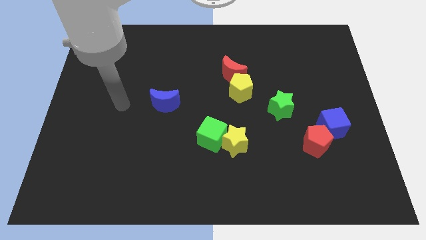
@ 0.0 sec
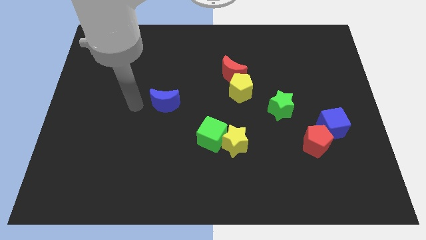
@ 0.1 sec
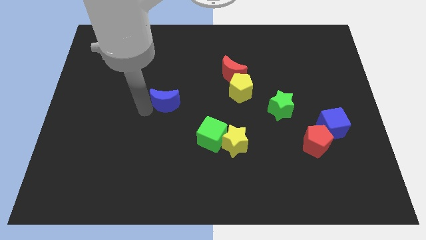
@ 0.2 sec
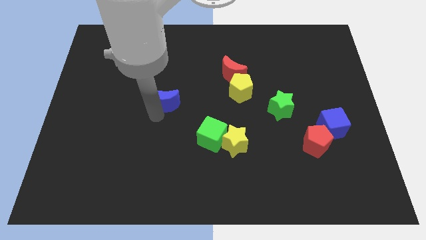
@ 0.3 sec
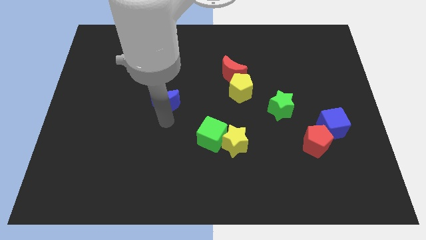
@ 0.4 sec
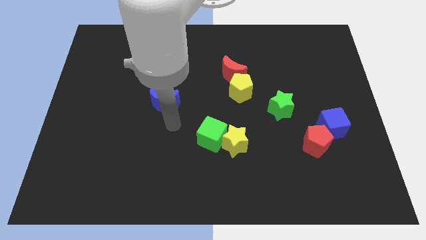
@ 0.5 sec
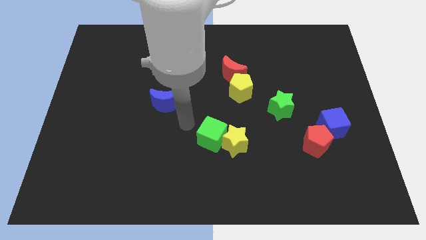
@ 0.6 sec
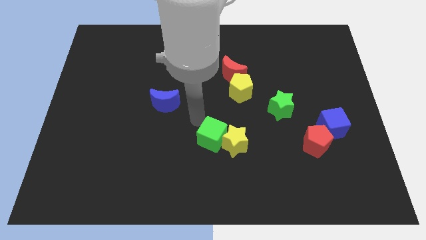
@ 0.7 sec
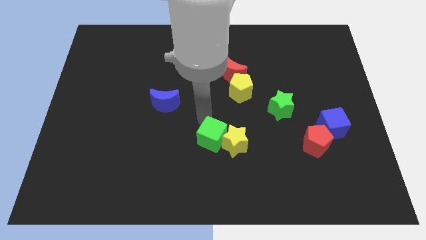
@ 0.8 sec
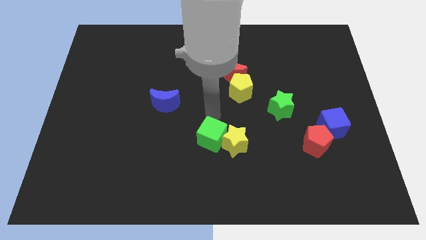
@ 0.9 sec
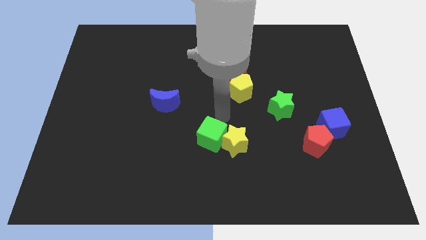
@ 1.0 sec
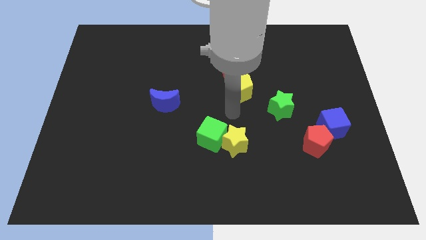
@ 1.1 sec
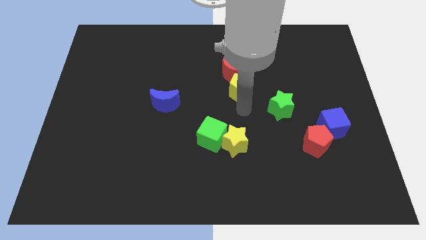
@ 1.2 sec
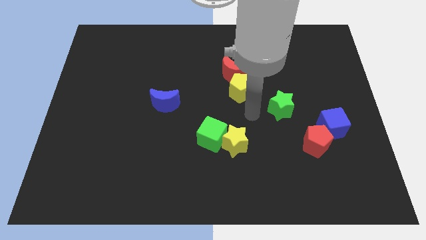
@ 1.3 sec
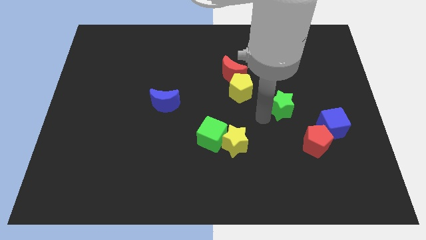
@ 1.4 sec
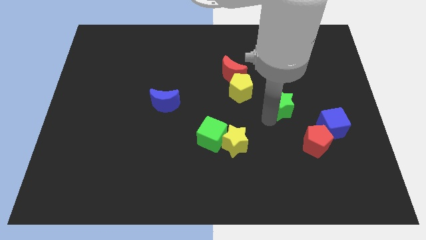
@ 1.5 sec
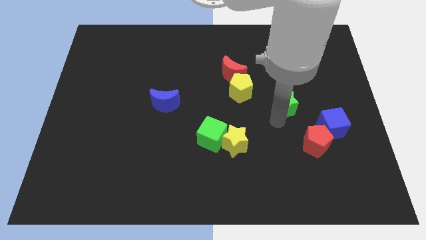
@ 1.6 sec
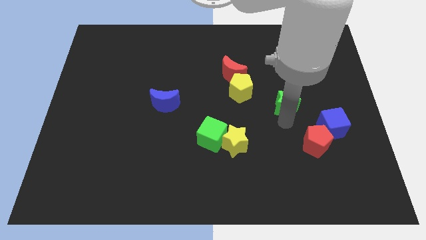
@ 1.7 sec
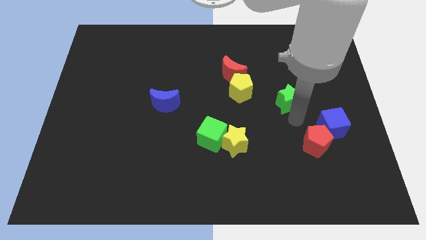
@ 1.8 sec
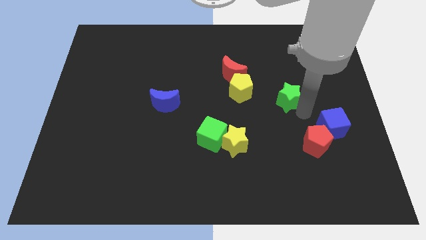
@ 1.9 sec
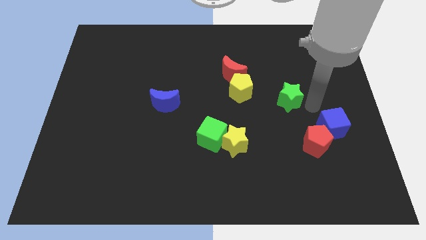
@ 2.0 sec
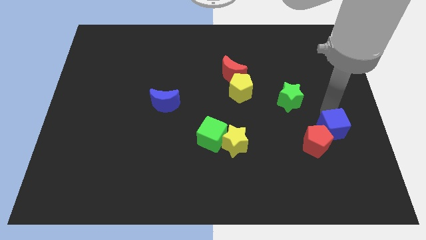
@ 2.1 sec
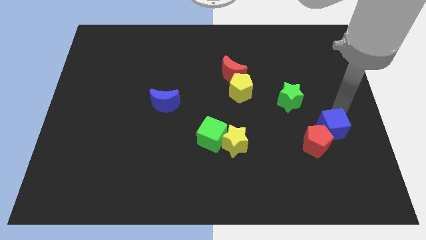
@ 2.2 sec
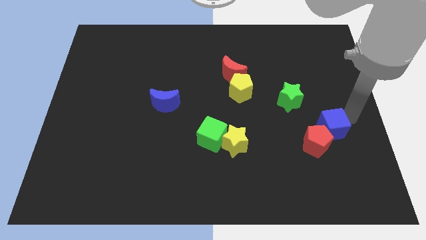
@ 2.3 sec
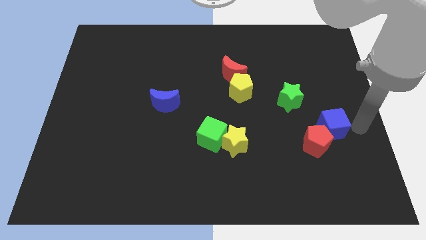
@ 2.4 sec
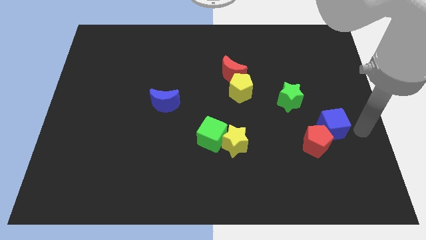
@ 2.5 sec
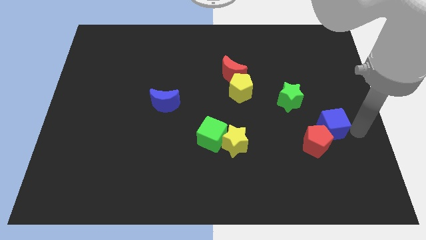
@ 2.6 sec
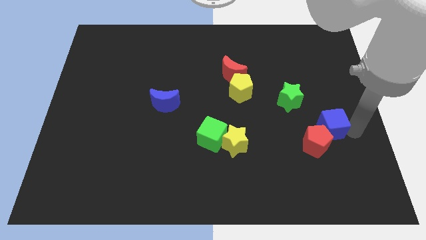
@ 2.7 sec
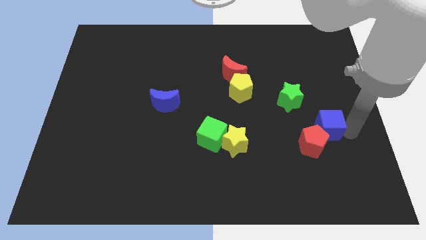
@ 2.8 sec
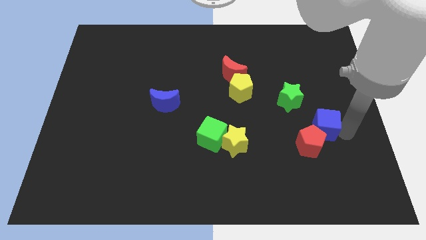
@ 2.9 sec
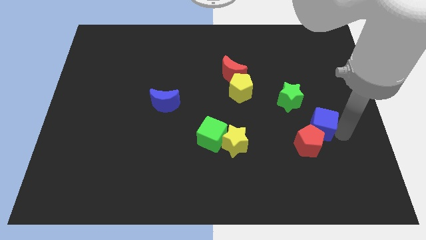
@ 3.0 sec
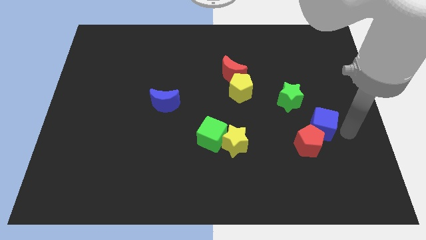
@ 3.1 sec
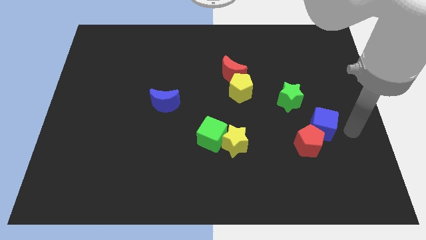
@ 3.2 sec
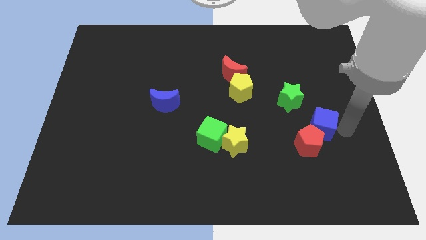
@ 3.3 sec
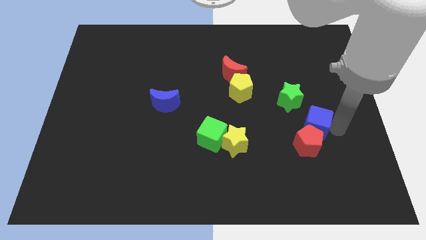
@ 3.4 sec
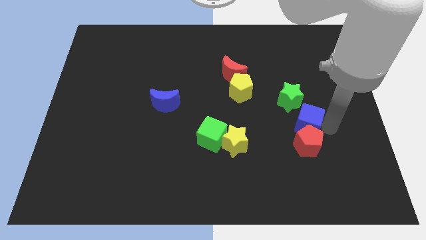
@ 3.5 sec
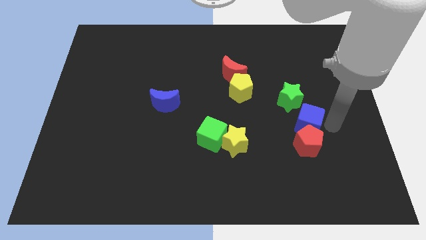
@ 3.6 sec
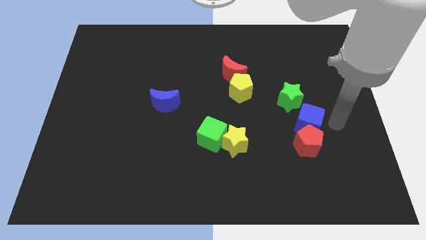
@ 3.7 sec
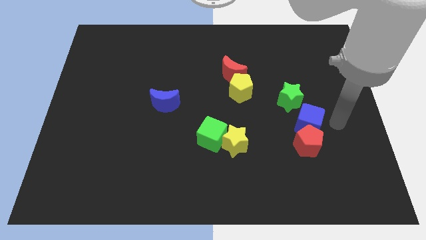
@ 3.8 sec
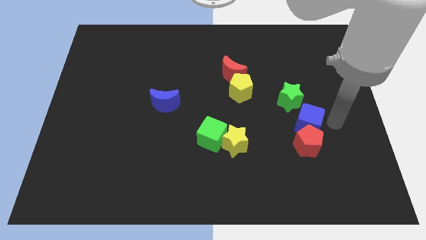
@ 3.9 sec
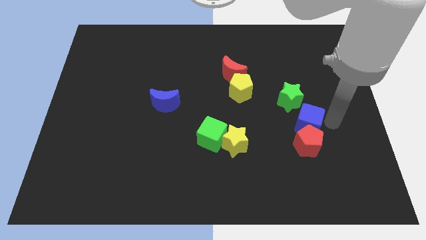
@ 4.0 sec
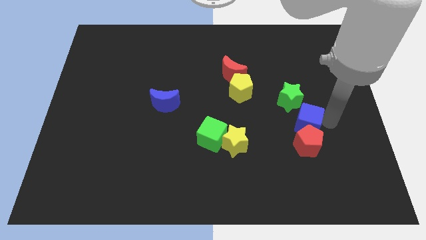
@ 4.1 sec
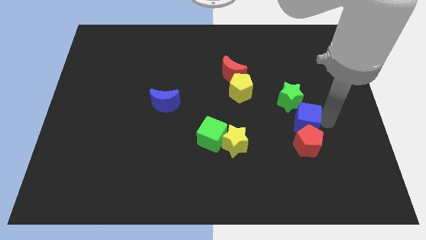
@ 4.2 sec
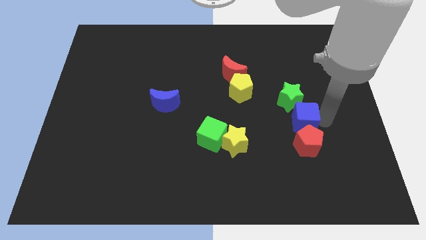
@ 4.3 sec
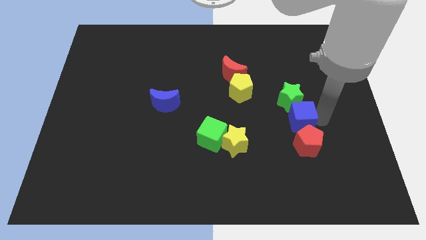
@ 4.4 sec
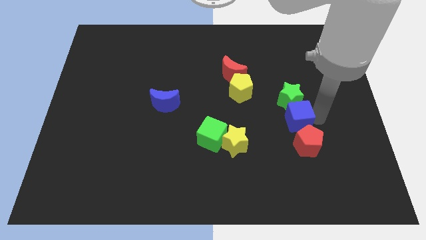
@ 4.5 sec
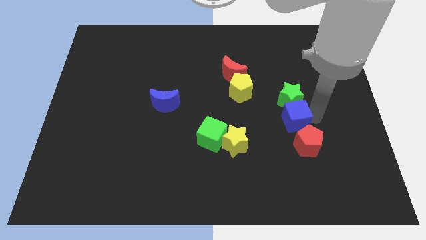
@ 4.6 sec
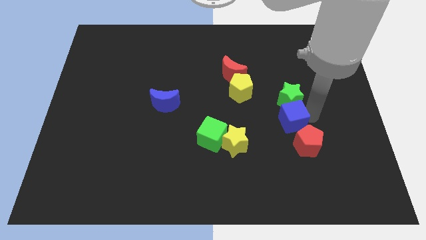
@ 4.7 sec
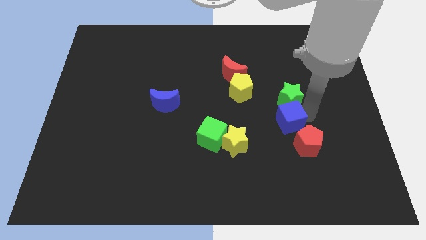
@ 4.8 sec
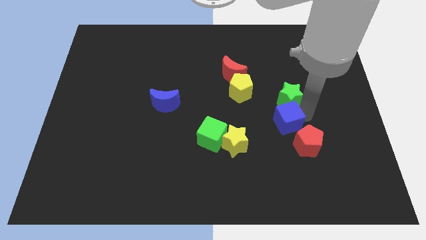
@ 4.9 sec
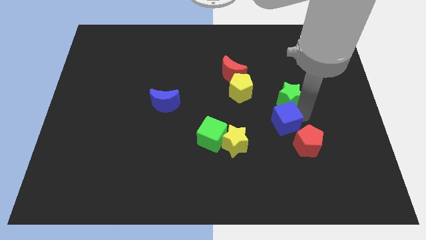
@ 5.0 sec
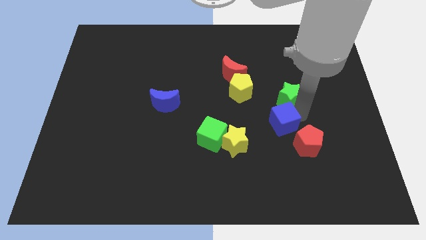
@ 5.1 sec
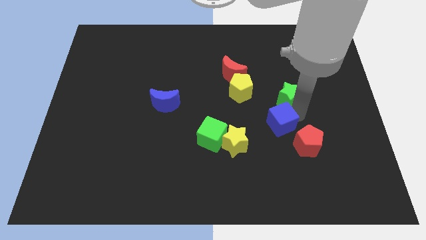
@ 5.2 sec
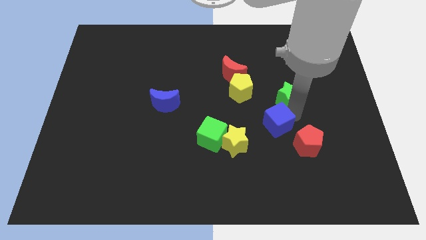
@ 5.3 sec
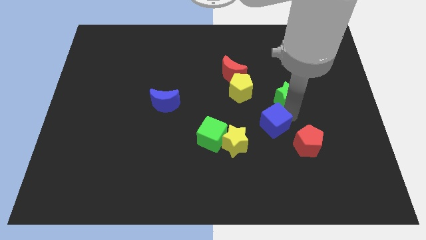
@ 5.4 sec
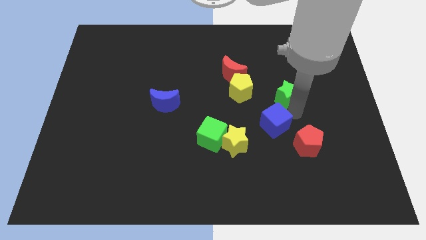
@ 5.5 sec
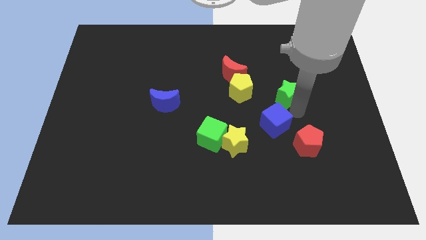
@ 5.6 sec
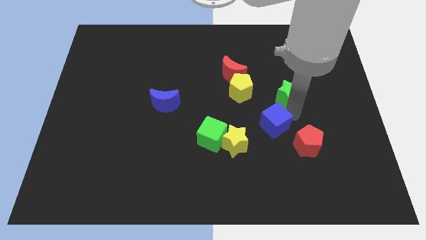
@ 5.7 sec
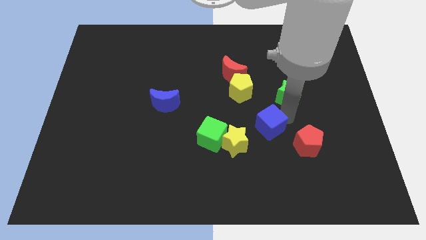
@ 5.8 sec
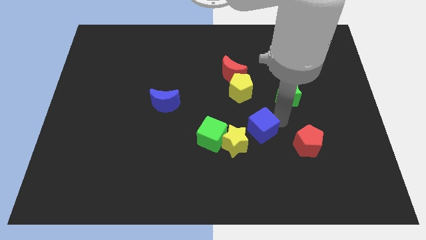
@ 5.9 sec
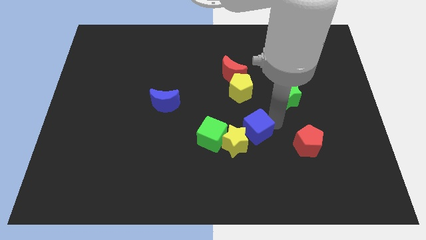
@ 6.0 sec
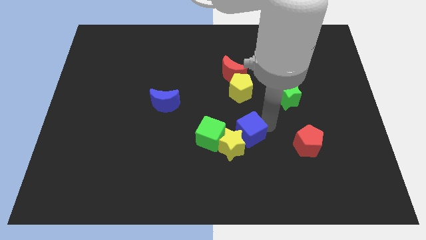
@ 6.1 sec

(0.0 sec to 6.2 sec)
move the blue cube towards the yellow star

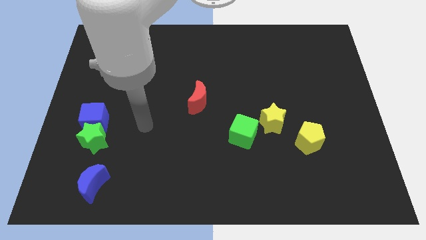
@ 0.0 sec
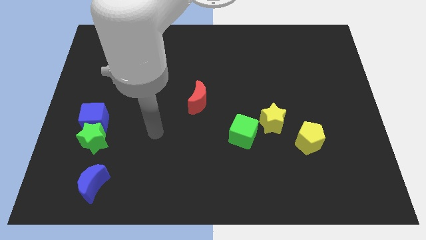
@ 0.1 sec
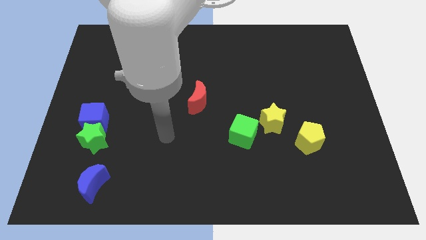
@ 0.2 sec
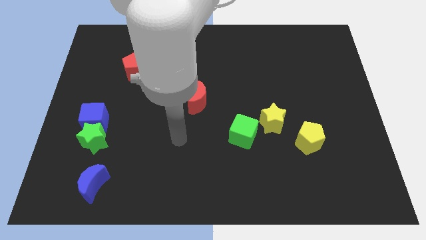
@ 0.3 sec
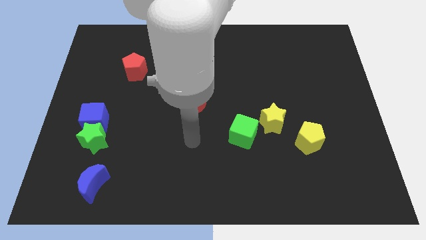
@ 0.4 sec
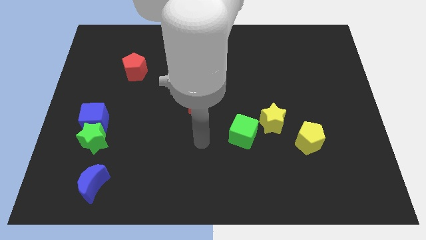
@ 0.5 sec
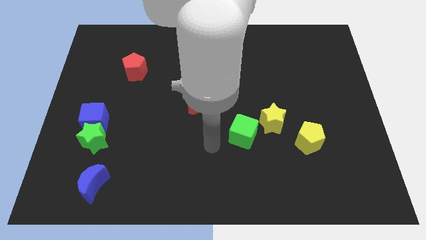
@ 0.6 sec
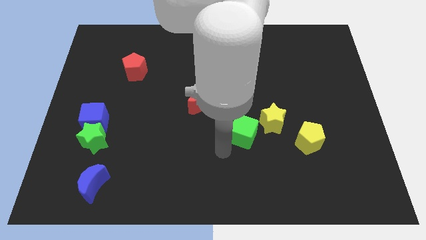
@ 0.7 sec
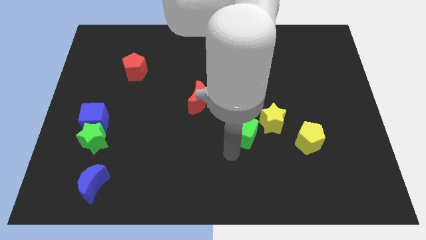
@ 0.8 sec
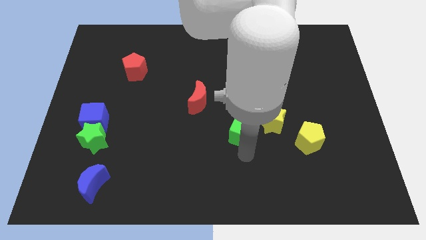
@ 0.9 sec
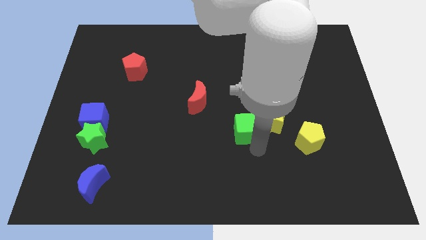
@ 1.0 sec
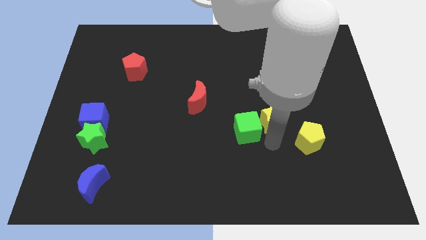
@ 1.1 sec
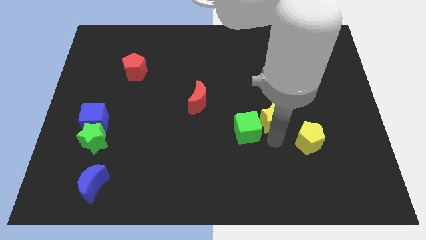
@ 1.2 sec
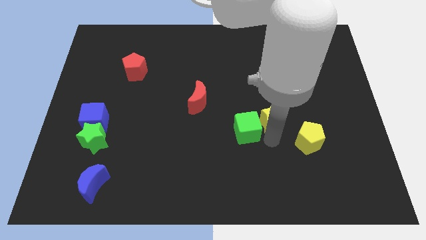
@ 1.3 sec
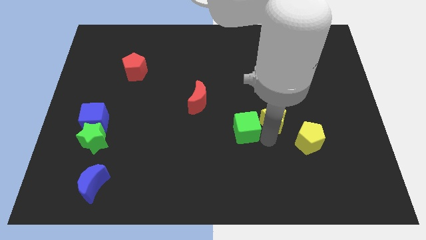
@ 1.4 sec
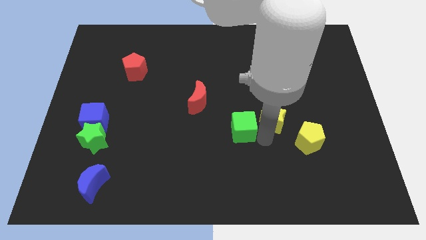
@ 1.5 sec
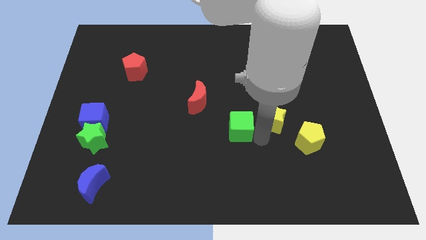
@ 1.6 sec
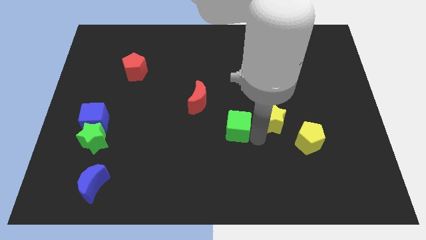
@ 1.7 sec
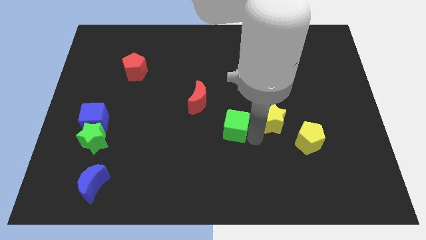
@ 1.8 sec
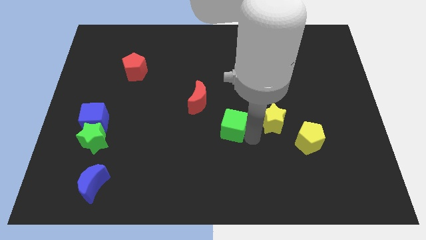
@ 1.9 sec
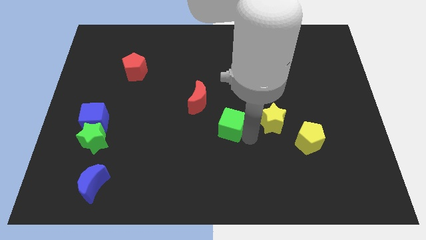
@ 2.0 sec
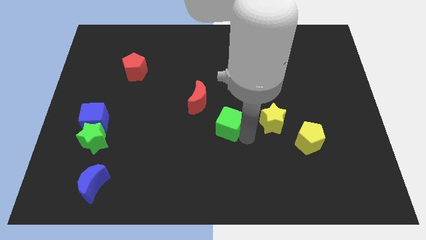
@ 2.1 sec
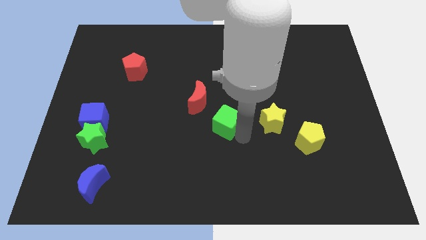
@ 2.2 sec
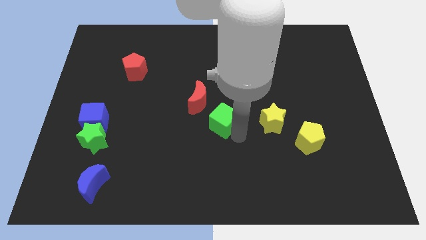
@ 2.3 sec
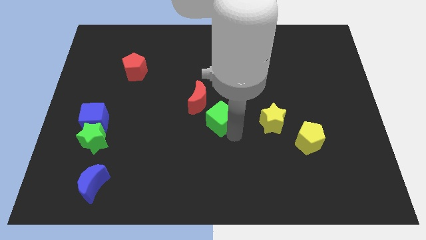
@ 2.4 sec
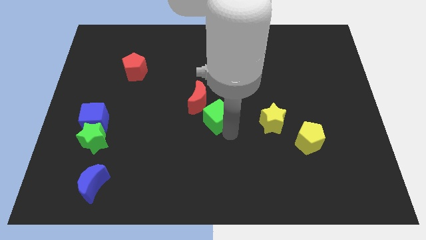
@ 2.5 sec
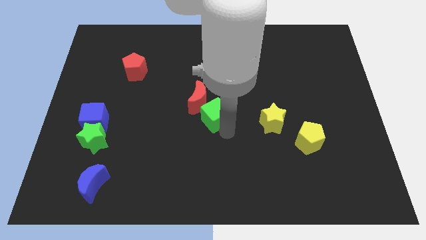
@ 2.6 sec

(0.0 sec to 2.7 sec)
push the green cube to the red moon
